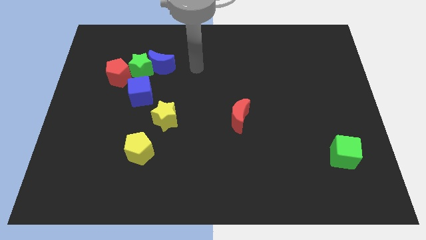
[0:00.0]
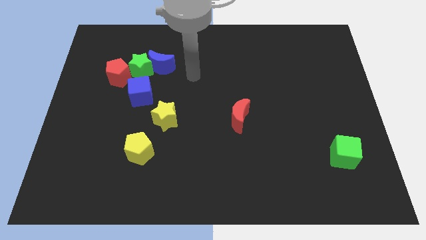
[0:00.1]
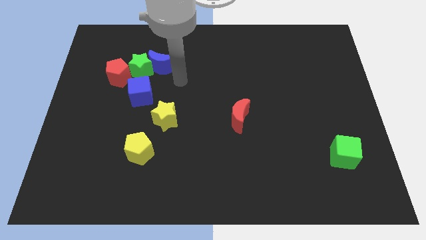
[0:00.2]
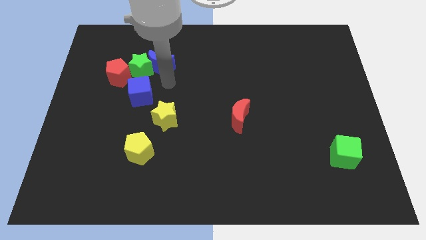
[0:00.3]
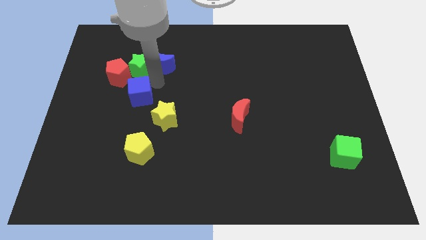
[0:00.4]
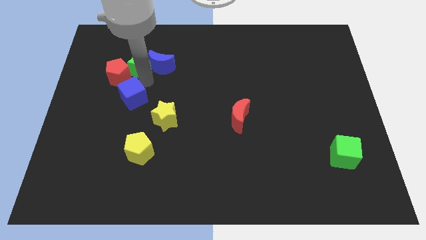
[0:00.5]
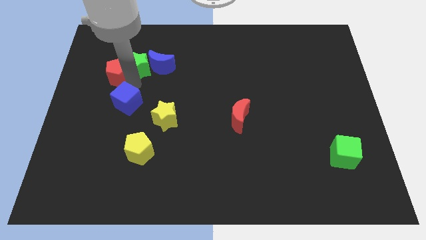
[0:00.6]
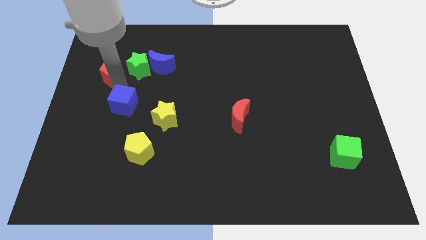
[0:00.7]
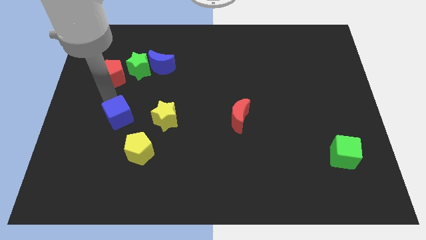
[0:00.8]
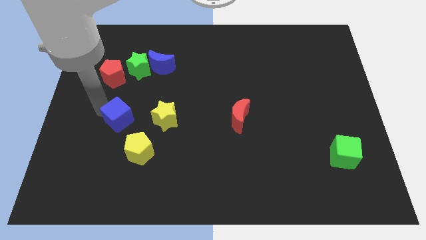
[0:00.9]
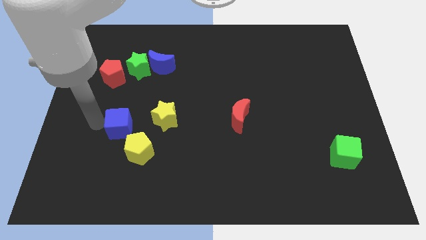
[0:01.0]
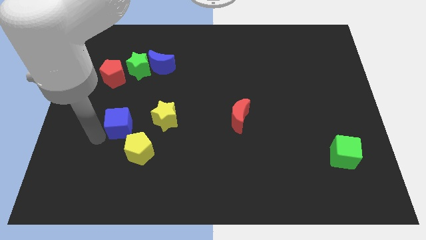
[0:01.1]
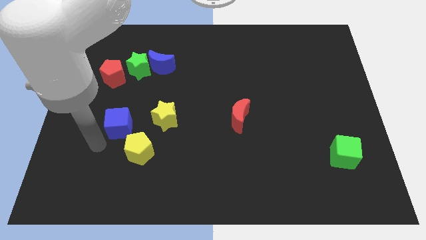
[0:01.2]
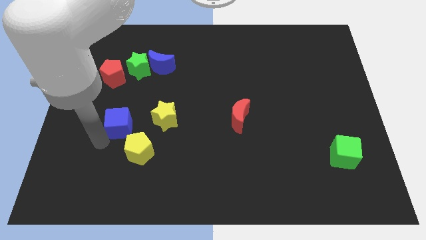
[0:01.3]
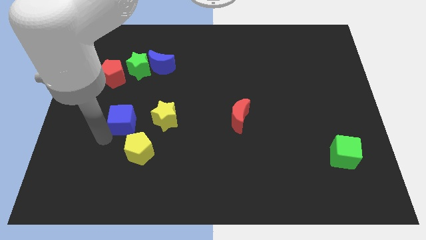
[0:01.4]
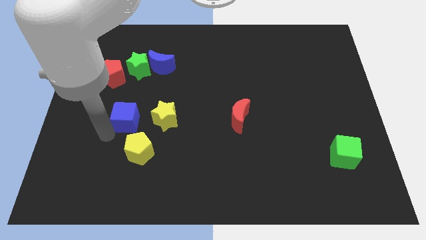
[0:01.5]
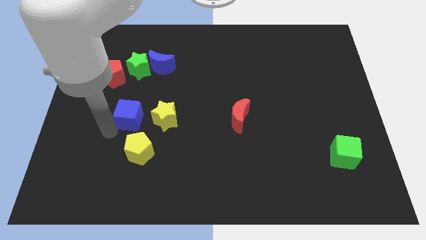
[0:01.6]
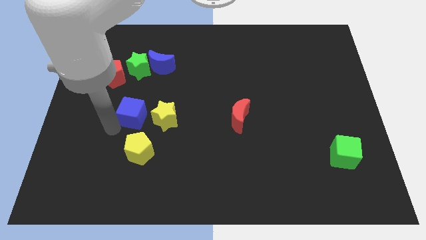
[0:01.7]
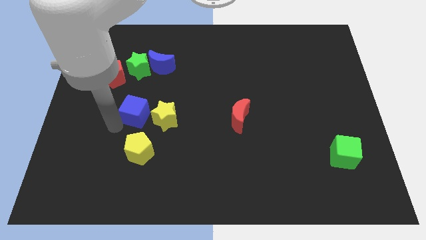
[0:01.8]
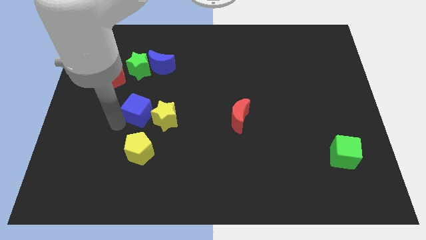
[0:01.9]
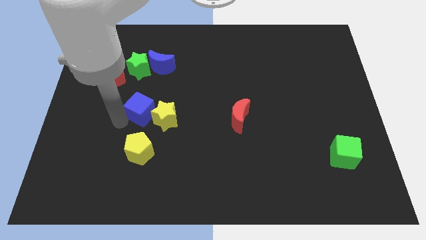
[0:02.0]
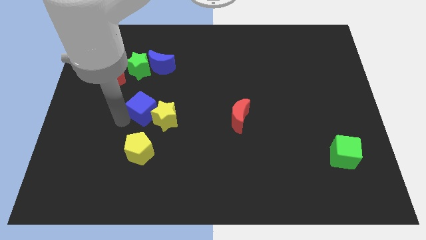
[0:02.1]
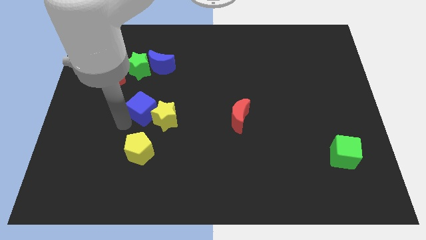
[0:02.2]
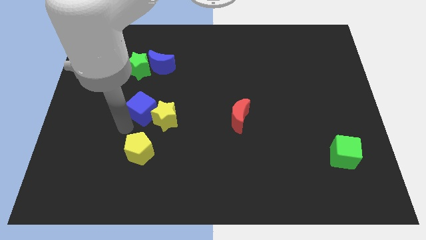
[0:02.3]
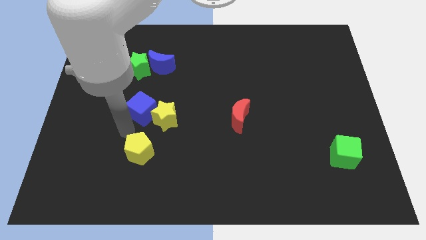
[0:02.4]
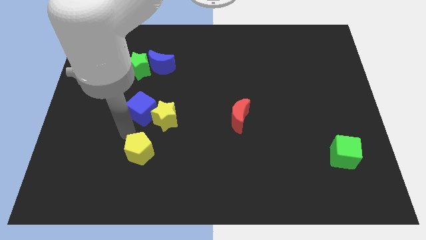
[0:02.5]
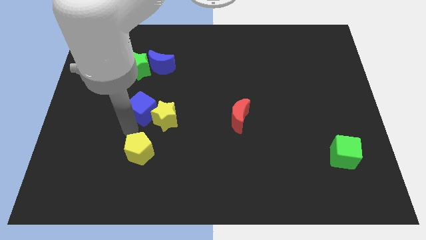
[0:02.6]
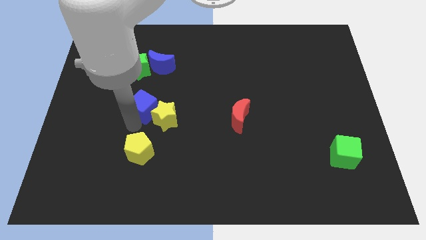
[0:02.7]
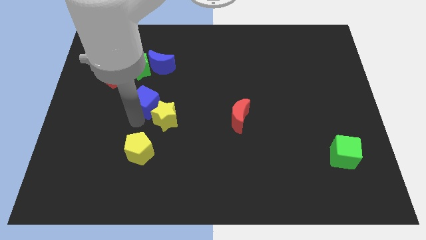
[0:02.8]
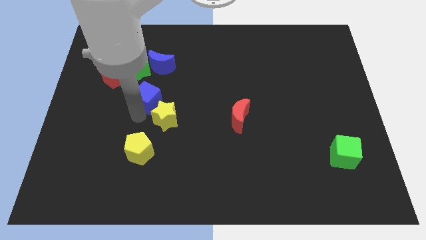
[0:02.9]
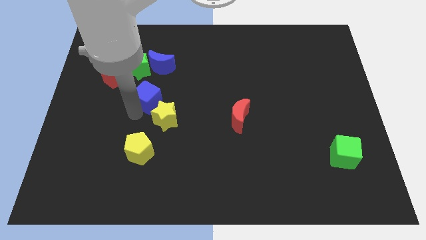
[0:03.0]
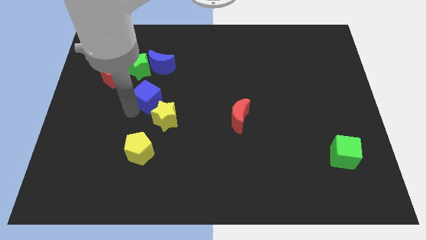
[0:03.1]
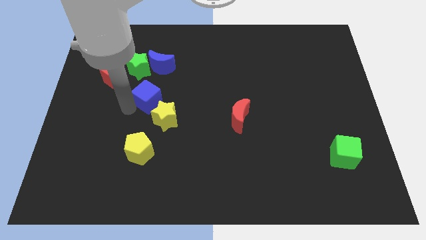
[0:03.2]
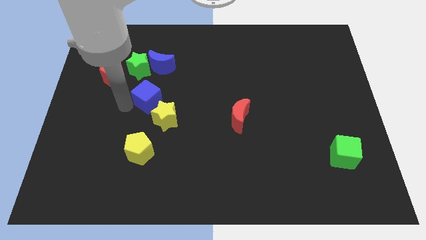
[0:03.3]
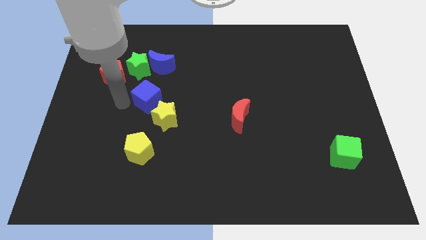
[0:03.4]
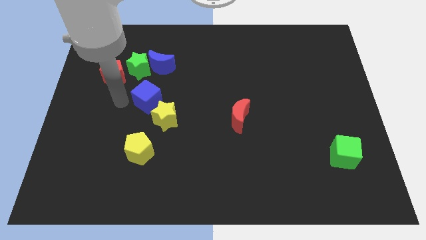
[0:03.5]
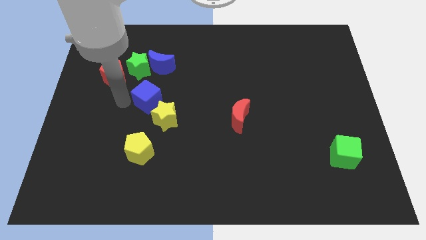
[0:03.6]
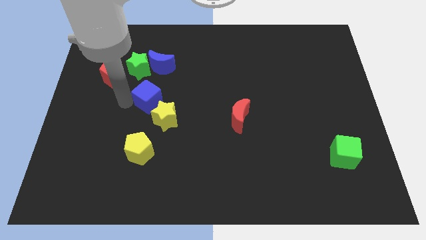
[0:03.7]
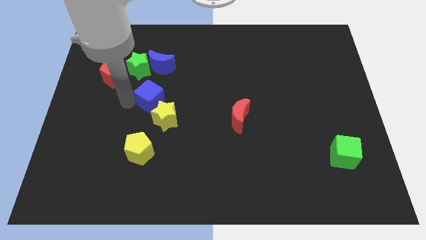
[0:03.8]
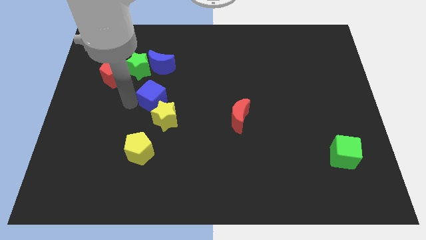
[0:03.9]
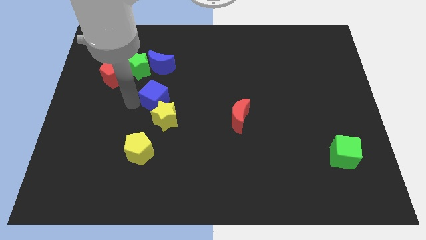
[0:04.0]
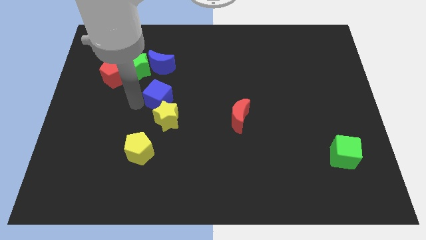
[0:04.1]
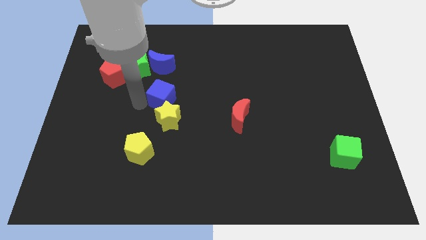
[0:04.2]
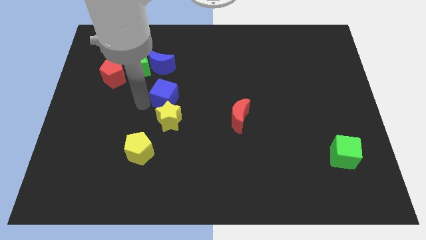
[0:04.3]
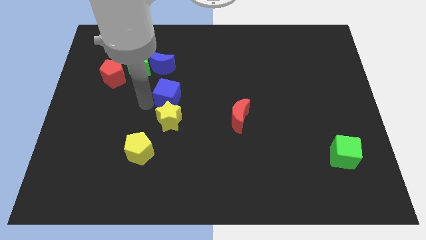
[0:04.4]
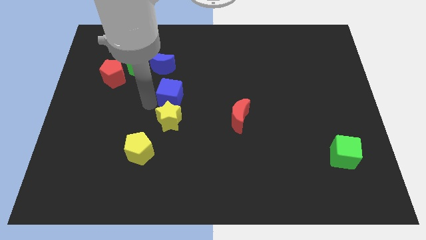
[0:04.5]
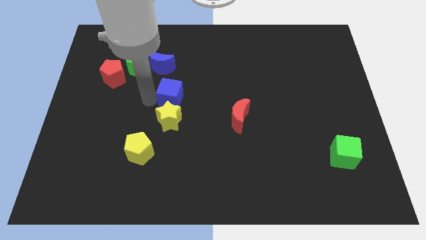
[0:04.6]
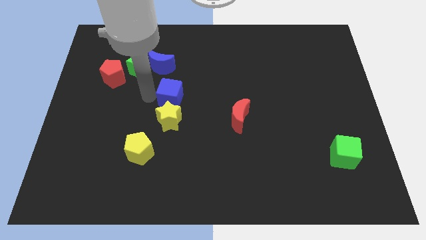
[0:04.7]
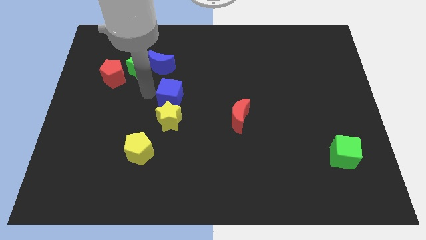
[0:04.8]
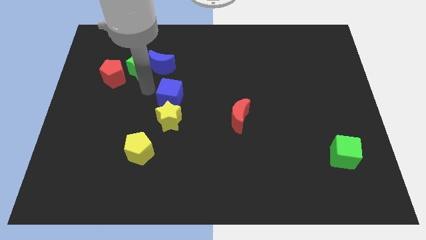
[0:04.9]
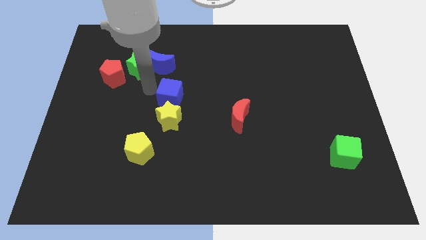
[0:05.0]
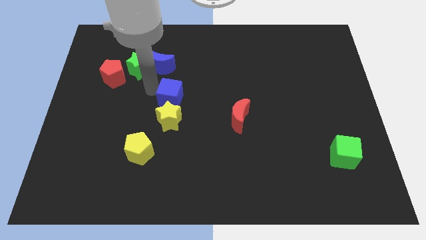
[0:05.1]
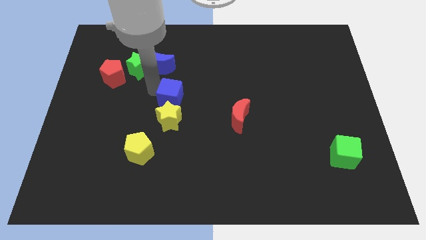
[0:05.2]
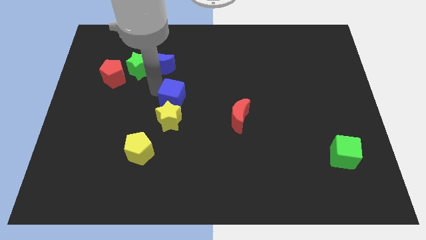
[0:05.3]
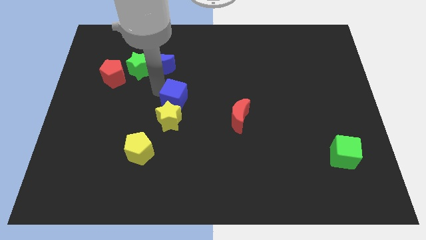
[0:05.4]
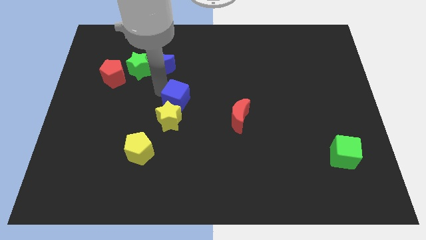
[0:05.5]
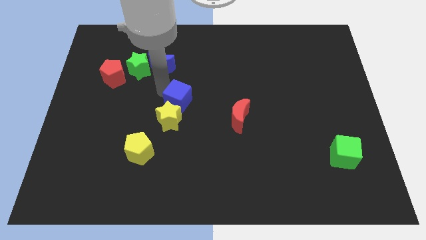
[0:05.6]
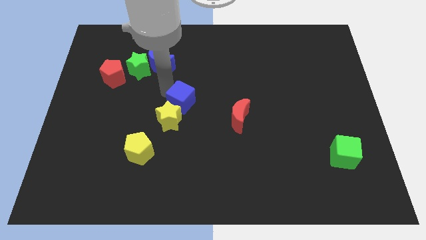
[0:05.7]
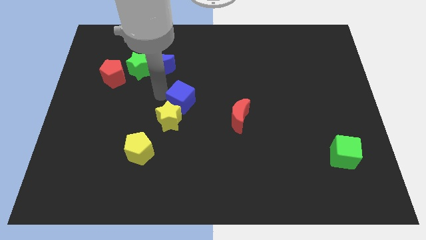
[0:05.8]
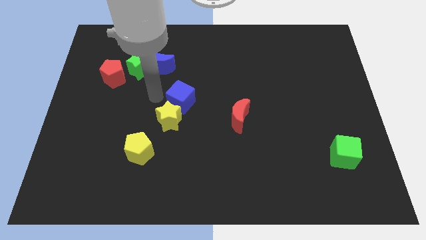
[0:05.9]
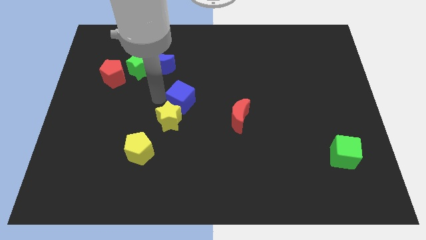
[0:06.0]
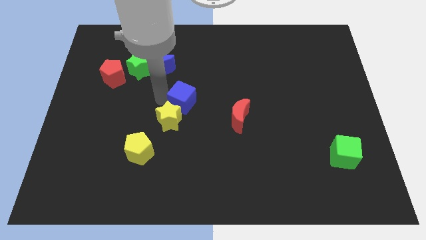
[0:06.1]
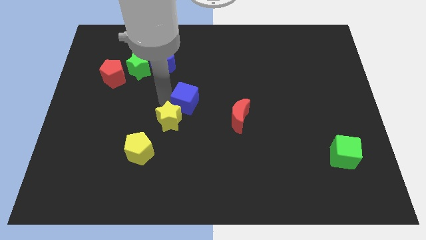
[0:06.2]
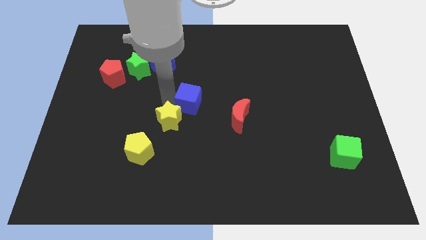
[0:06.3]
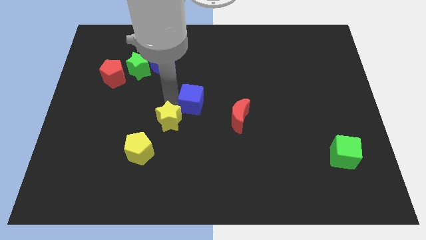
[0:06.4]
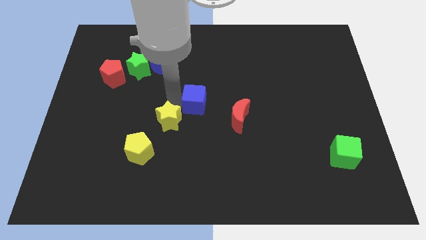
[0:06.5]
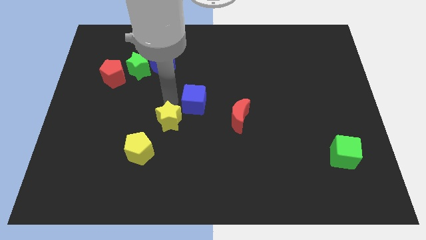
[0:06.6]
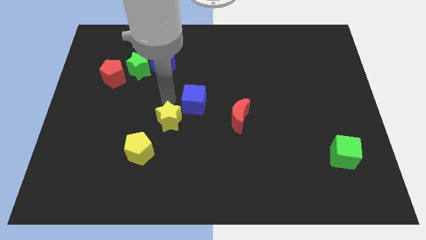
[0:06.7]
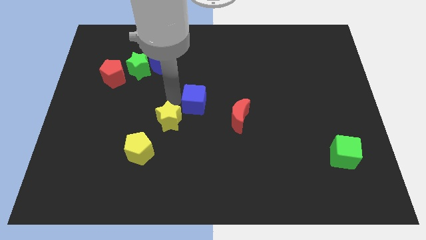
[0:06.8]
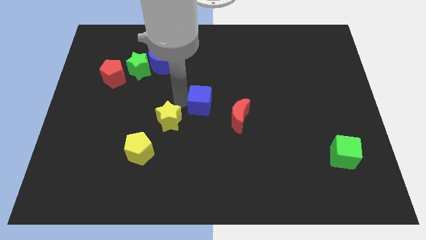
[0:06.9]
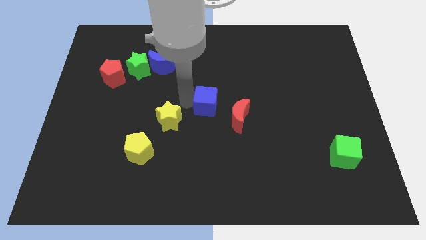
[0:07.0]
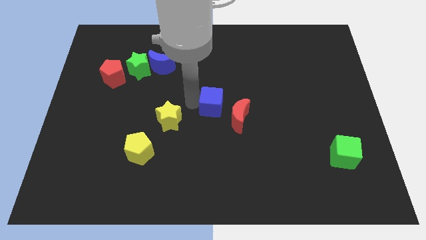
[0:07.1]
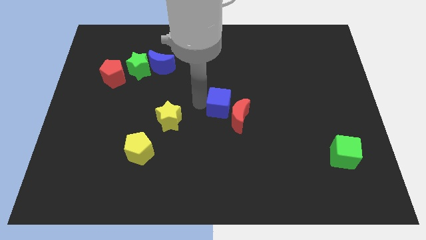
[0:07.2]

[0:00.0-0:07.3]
push the blue cube to the red moon
